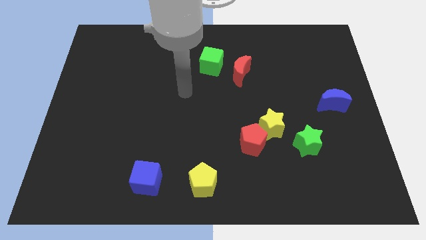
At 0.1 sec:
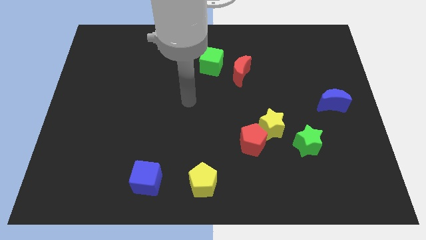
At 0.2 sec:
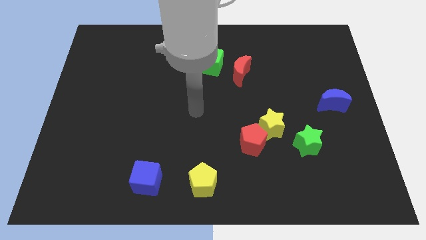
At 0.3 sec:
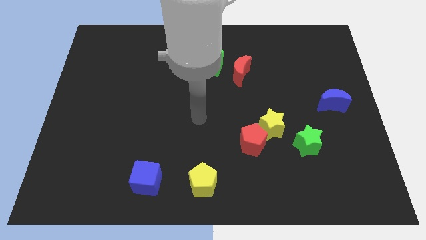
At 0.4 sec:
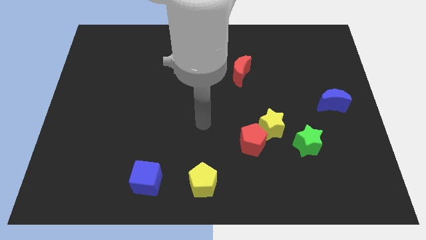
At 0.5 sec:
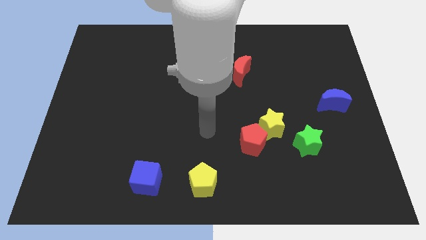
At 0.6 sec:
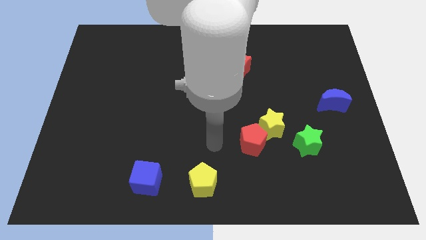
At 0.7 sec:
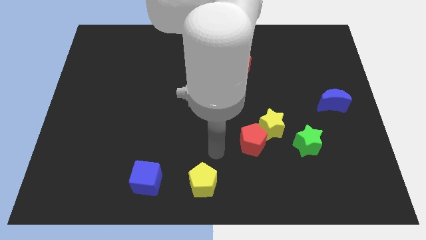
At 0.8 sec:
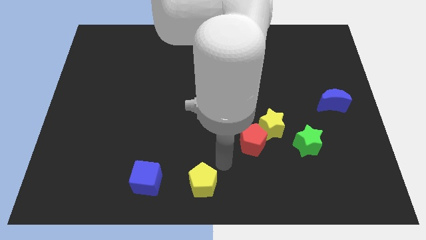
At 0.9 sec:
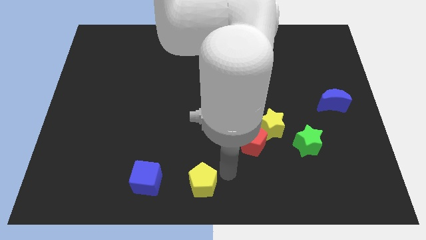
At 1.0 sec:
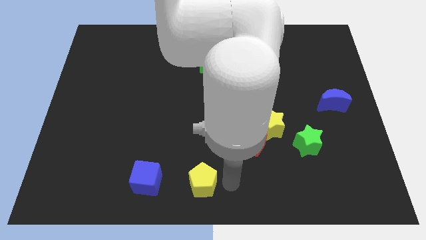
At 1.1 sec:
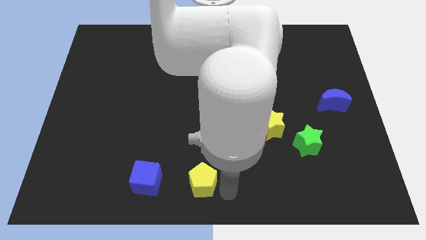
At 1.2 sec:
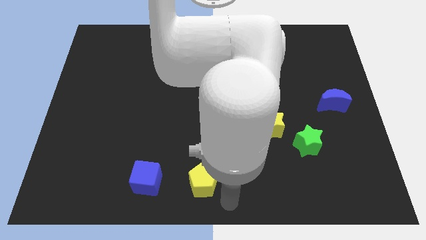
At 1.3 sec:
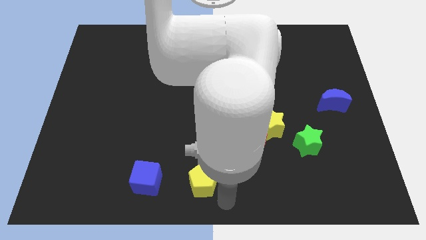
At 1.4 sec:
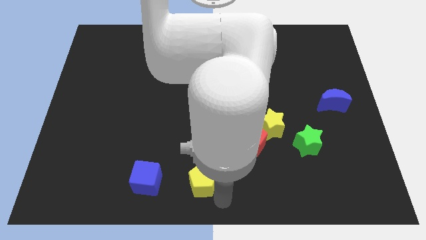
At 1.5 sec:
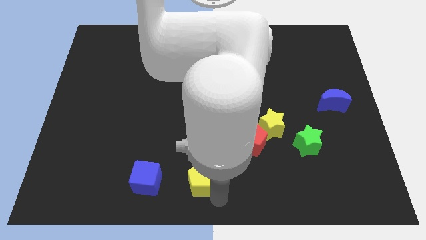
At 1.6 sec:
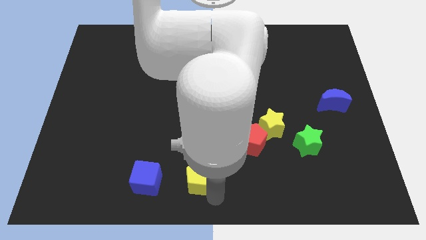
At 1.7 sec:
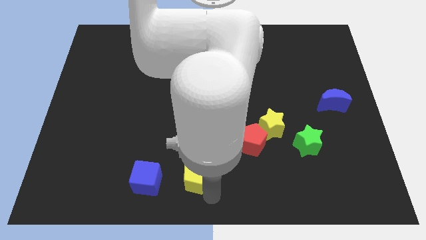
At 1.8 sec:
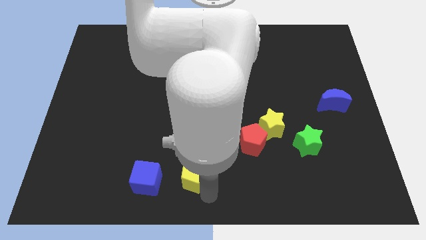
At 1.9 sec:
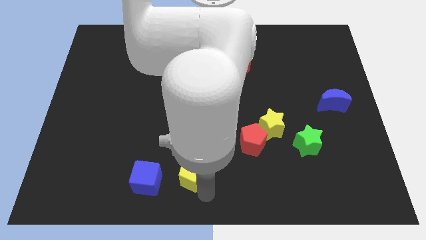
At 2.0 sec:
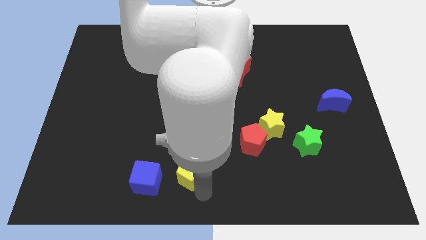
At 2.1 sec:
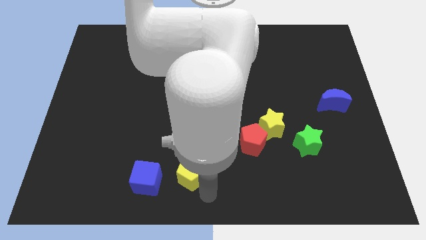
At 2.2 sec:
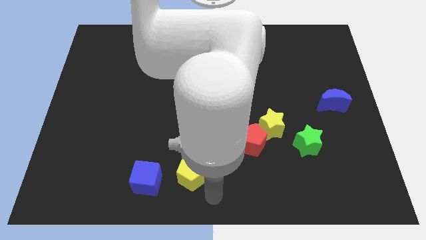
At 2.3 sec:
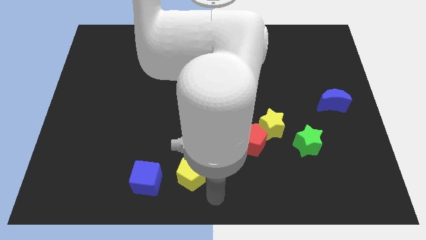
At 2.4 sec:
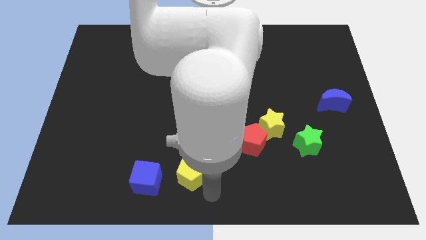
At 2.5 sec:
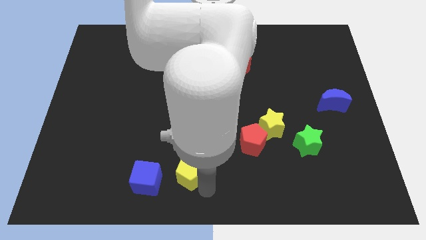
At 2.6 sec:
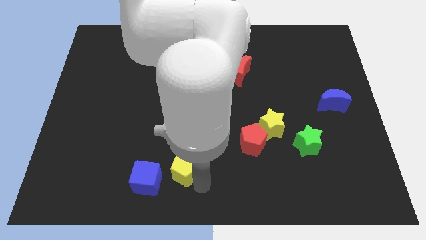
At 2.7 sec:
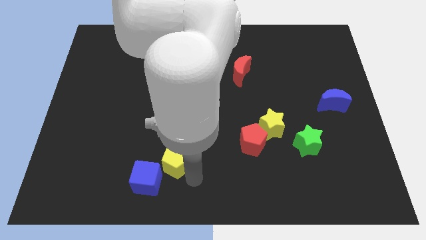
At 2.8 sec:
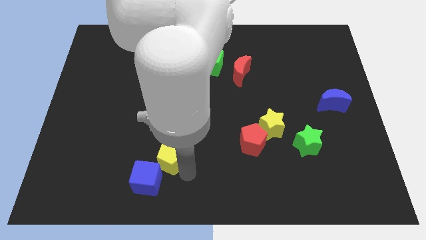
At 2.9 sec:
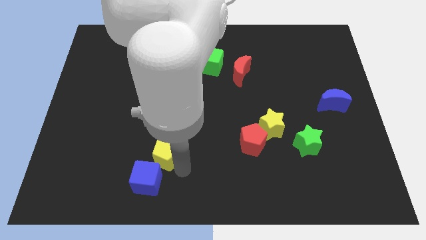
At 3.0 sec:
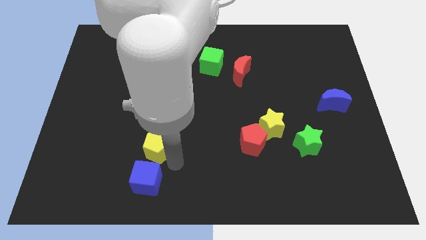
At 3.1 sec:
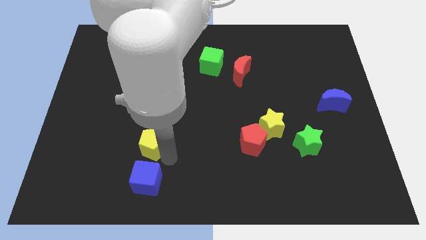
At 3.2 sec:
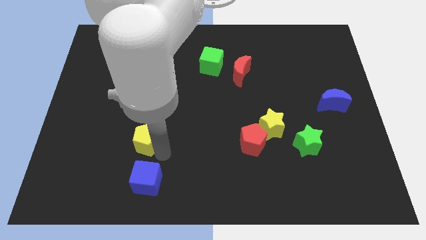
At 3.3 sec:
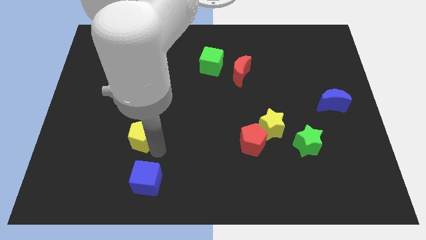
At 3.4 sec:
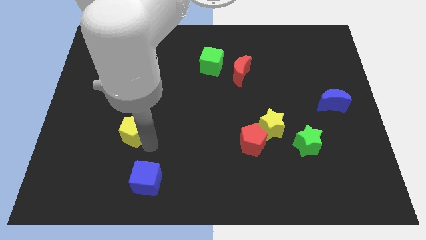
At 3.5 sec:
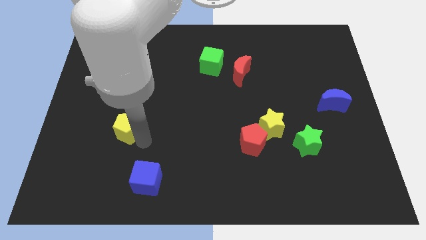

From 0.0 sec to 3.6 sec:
slide the yellow pentagon up and to the left

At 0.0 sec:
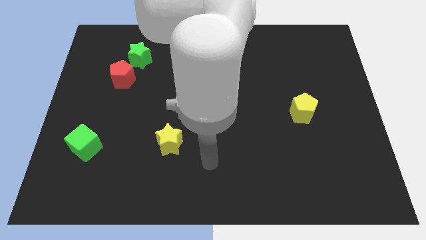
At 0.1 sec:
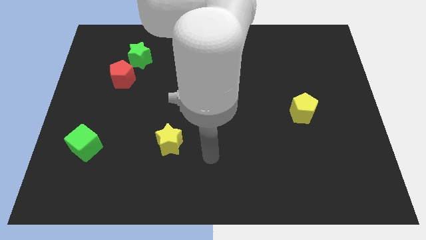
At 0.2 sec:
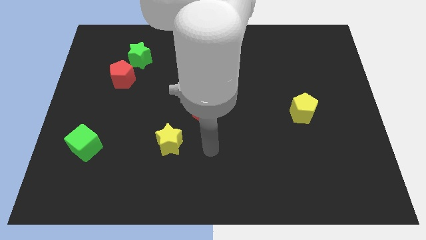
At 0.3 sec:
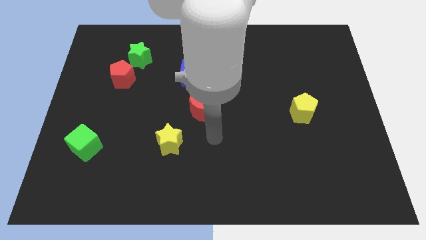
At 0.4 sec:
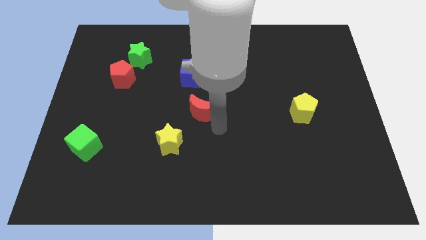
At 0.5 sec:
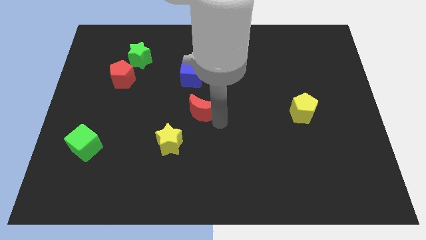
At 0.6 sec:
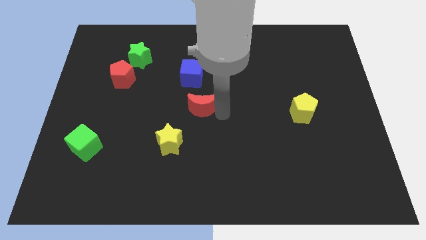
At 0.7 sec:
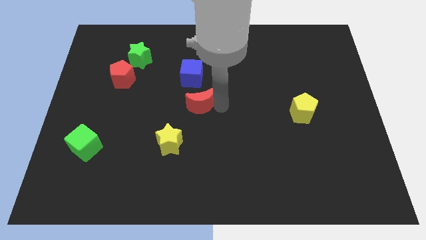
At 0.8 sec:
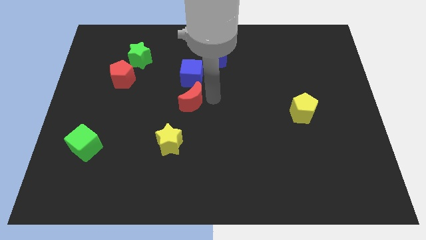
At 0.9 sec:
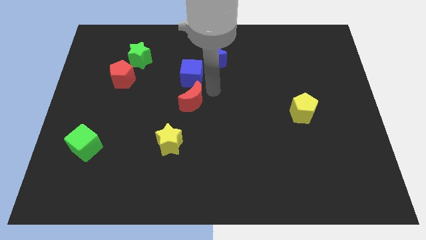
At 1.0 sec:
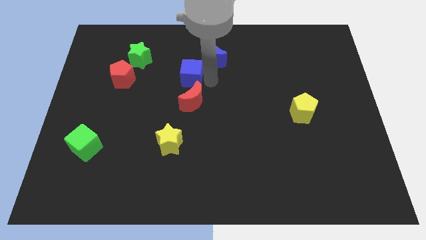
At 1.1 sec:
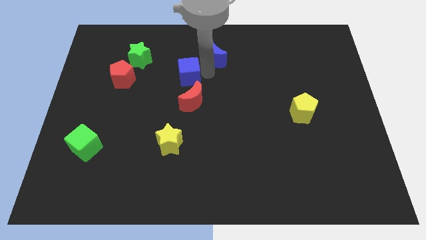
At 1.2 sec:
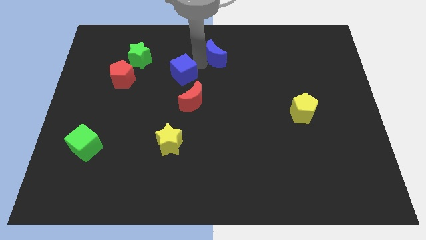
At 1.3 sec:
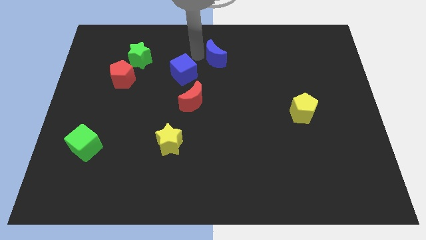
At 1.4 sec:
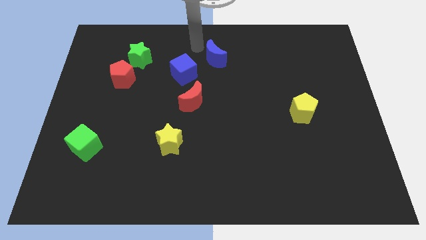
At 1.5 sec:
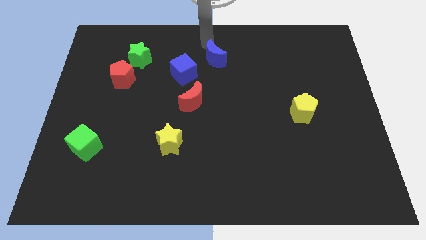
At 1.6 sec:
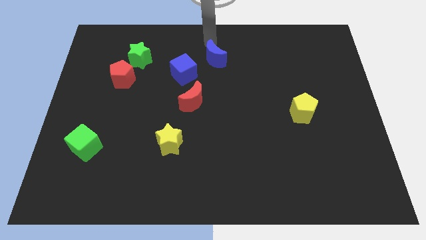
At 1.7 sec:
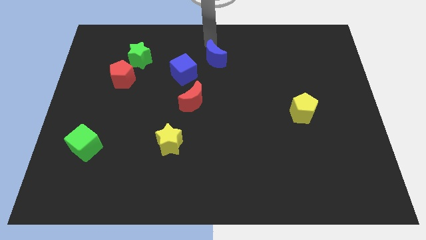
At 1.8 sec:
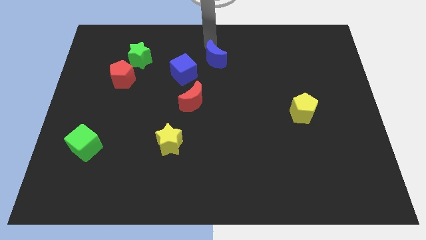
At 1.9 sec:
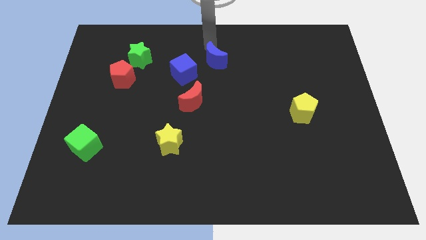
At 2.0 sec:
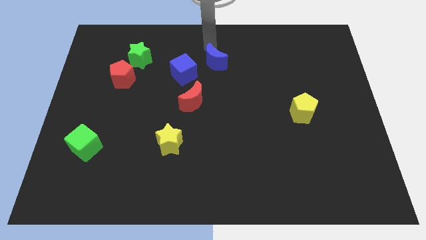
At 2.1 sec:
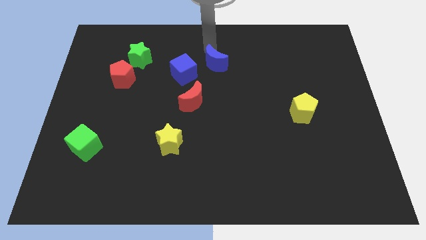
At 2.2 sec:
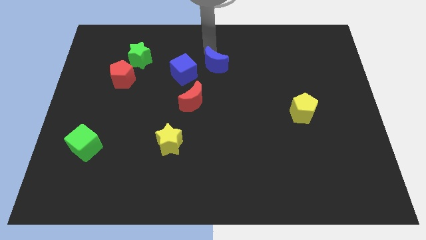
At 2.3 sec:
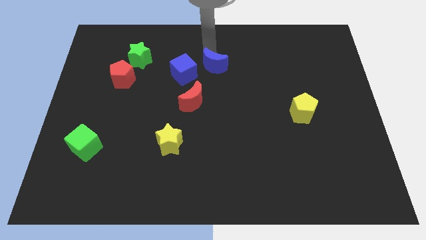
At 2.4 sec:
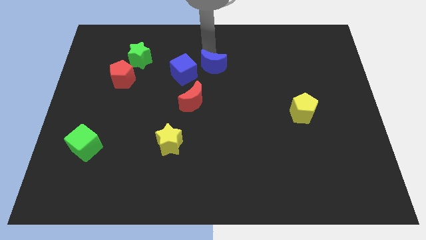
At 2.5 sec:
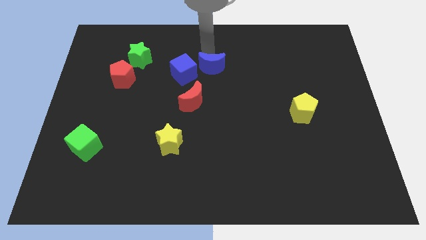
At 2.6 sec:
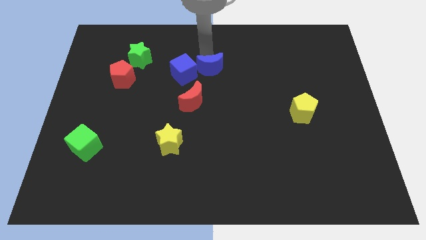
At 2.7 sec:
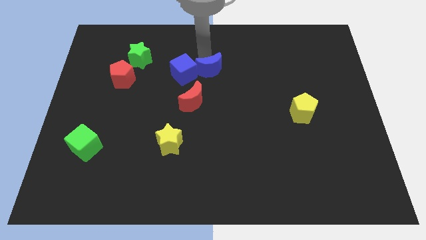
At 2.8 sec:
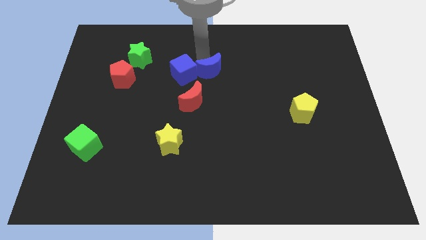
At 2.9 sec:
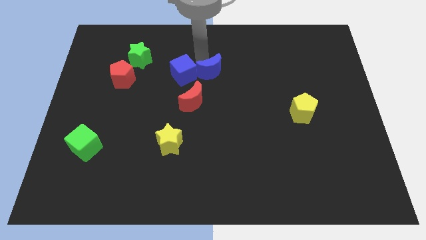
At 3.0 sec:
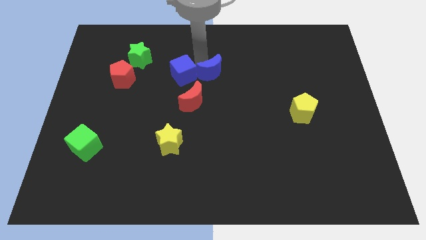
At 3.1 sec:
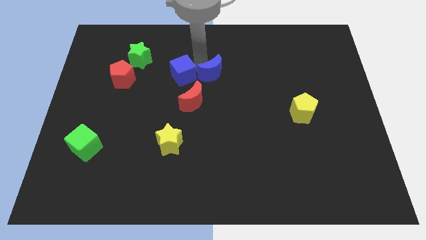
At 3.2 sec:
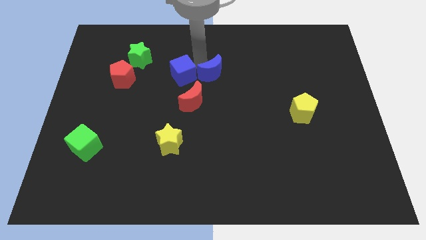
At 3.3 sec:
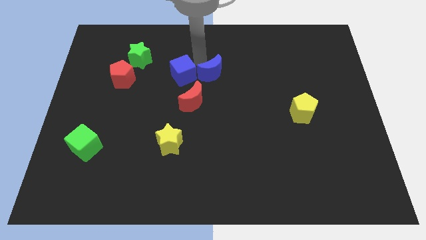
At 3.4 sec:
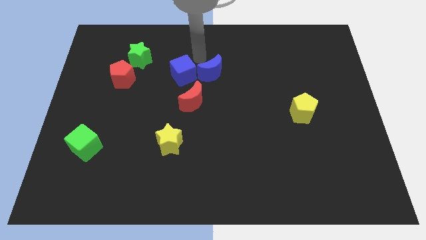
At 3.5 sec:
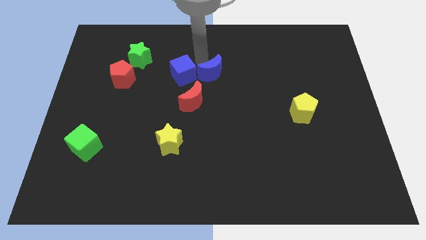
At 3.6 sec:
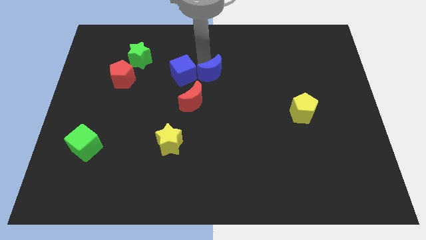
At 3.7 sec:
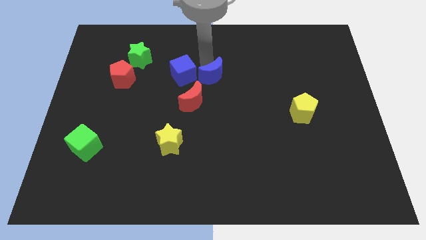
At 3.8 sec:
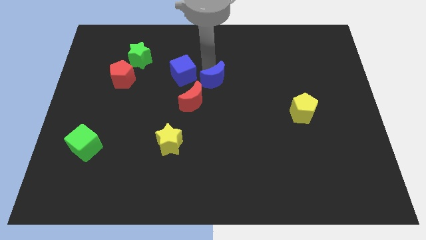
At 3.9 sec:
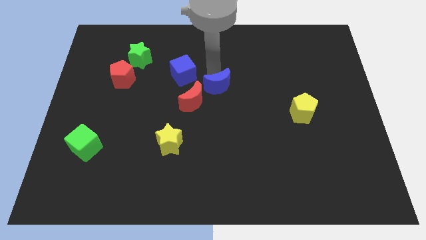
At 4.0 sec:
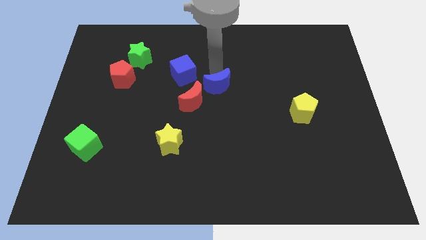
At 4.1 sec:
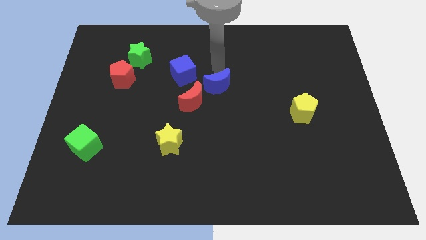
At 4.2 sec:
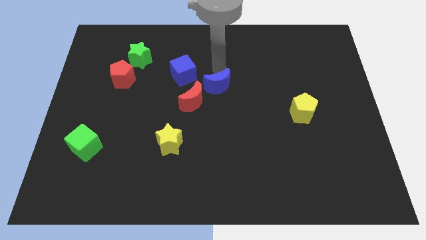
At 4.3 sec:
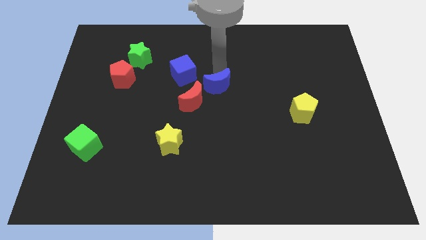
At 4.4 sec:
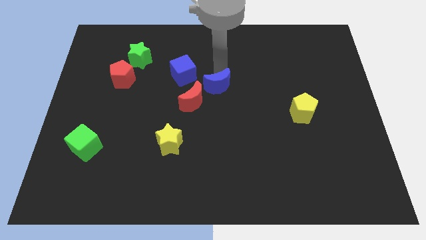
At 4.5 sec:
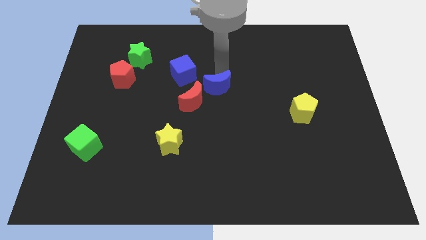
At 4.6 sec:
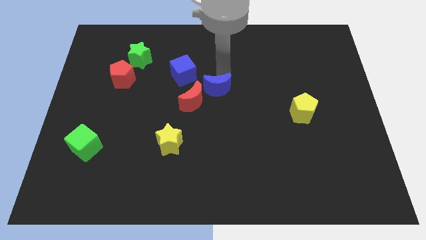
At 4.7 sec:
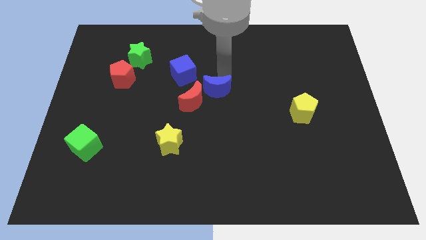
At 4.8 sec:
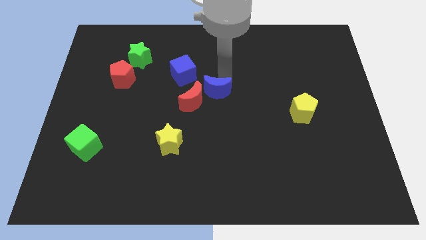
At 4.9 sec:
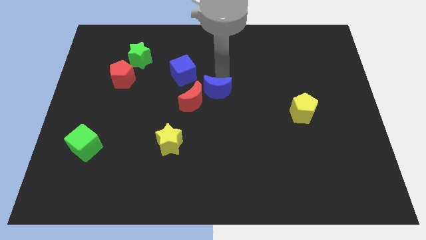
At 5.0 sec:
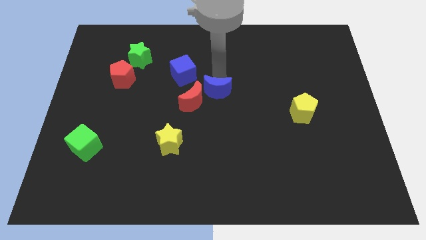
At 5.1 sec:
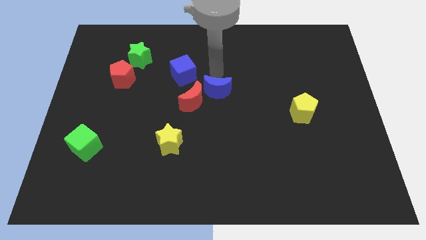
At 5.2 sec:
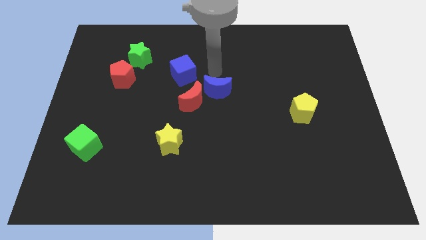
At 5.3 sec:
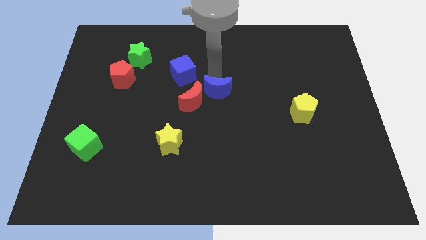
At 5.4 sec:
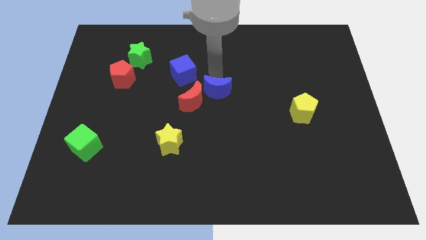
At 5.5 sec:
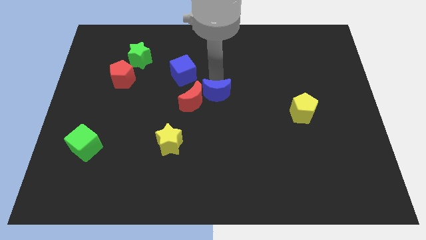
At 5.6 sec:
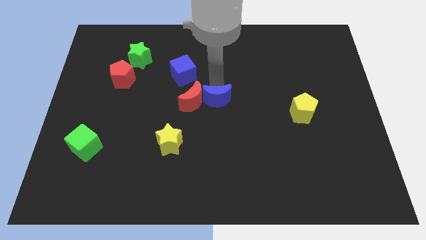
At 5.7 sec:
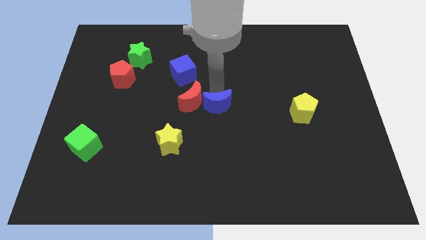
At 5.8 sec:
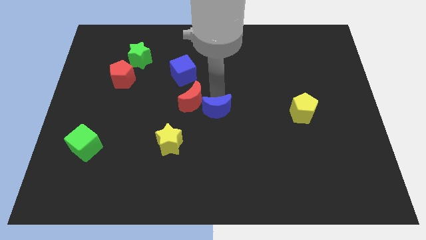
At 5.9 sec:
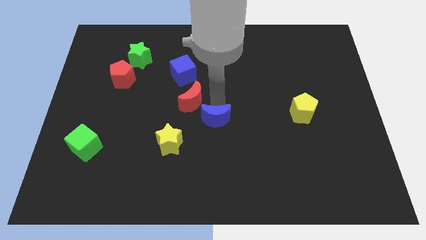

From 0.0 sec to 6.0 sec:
slide the blue moon downwards
